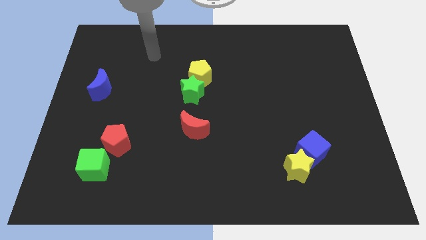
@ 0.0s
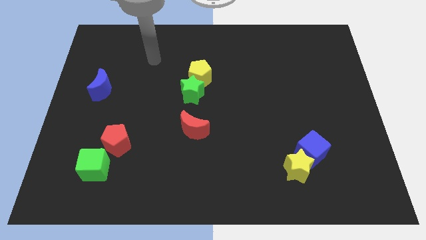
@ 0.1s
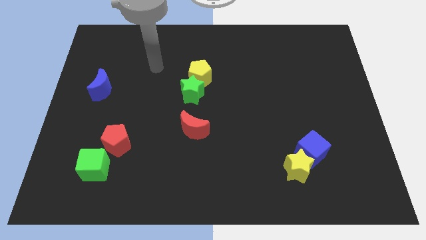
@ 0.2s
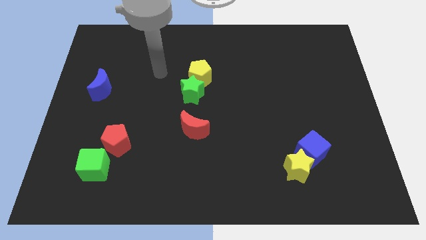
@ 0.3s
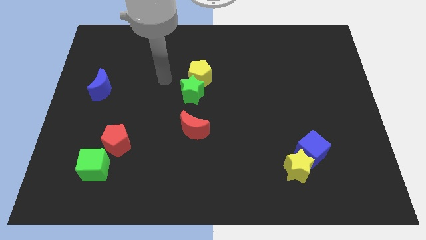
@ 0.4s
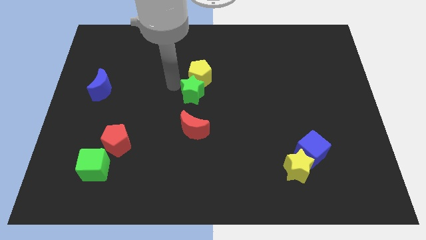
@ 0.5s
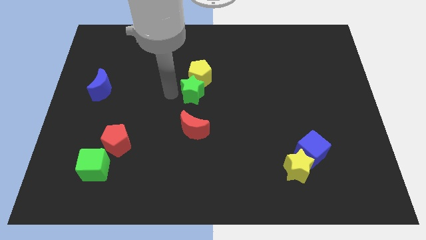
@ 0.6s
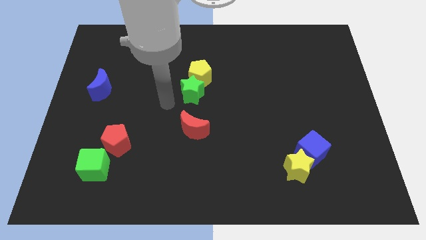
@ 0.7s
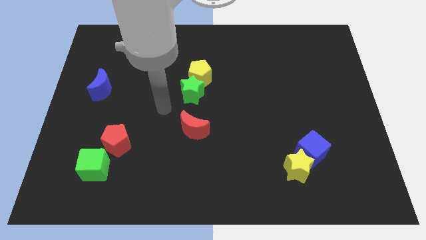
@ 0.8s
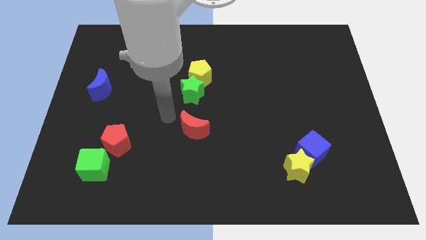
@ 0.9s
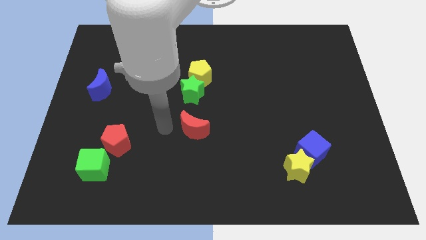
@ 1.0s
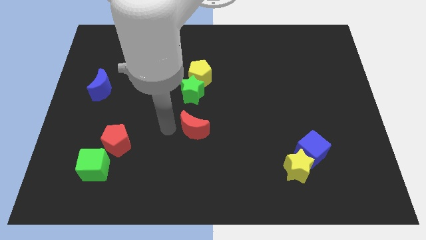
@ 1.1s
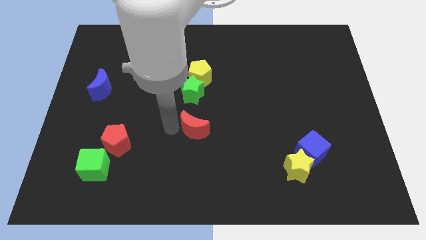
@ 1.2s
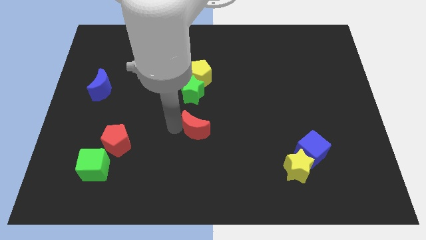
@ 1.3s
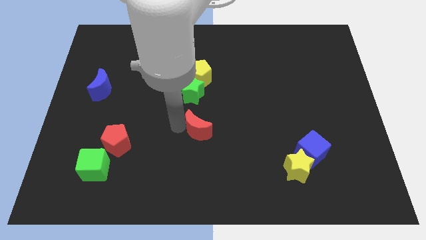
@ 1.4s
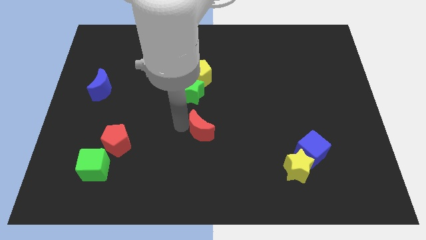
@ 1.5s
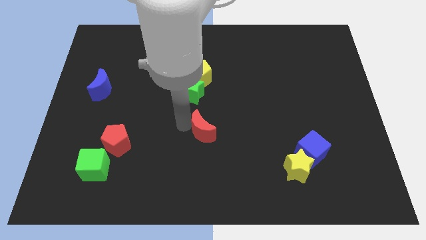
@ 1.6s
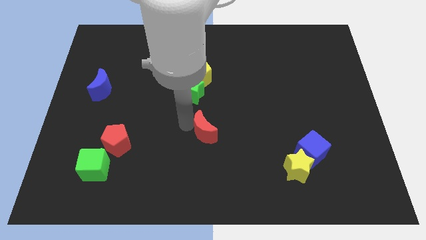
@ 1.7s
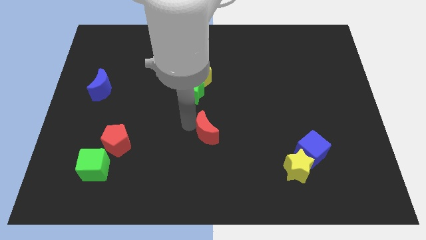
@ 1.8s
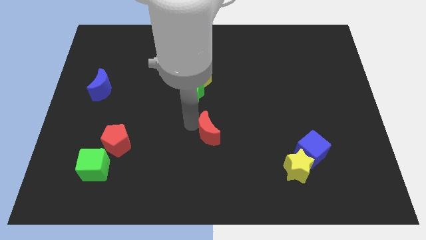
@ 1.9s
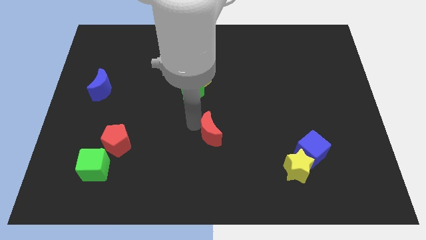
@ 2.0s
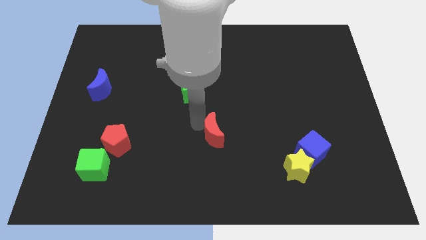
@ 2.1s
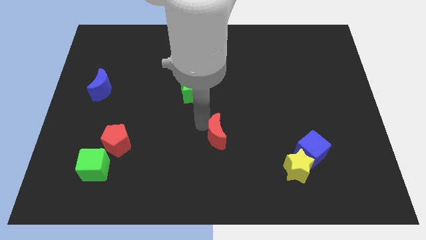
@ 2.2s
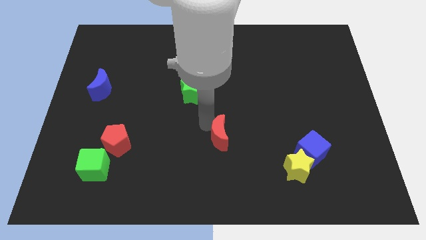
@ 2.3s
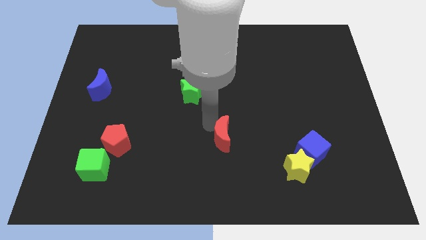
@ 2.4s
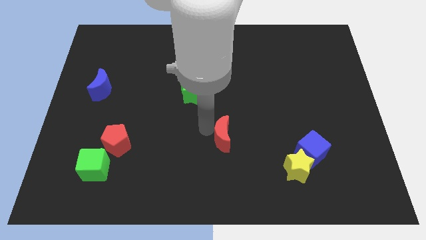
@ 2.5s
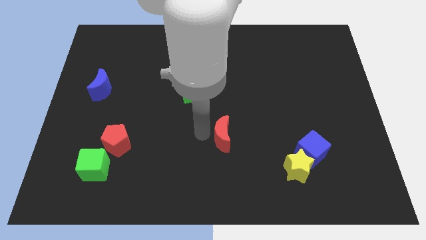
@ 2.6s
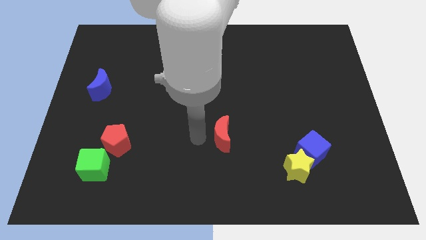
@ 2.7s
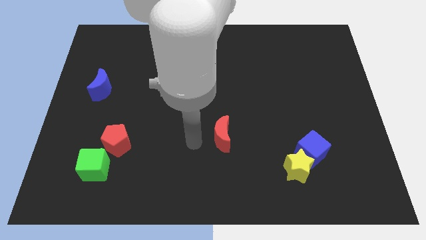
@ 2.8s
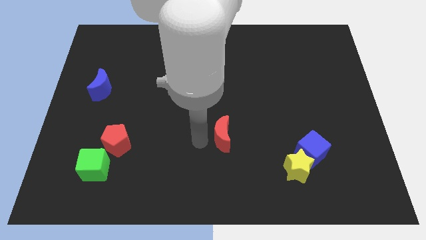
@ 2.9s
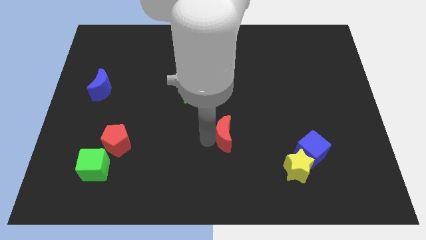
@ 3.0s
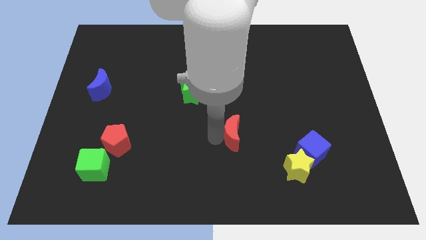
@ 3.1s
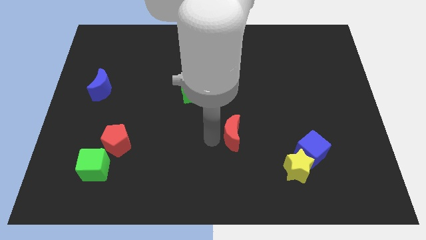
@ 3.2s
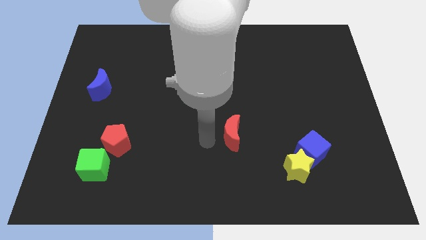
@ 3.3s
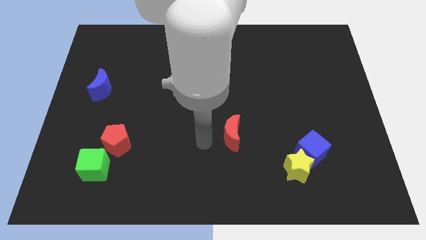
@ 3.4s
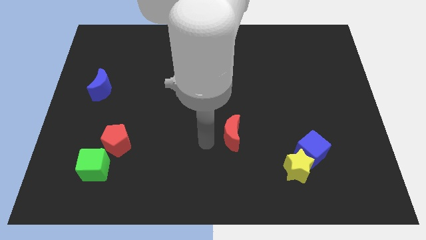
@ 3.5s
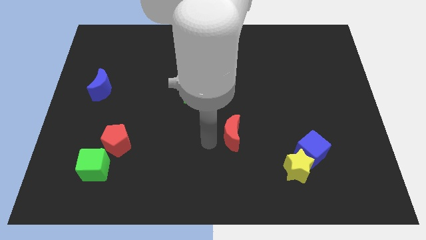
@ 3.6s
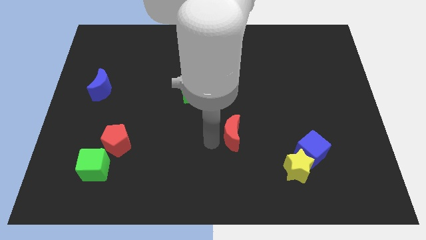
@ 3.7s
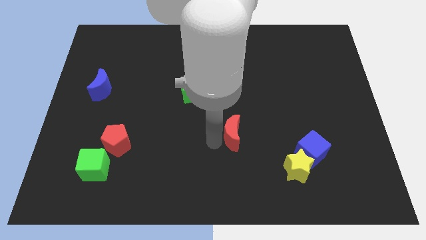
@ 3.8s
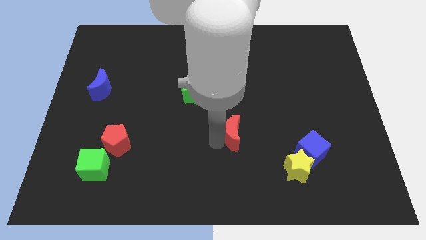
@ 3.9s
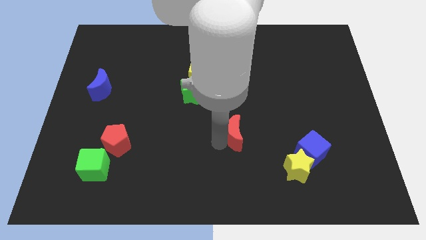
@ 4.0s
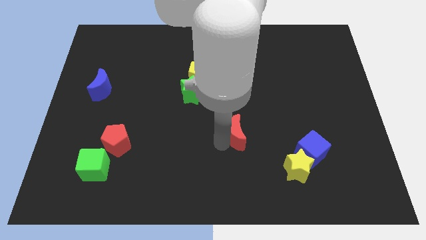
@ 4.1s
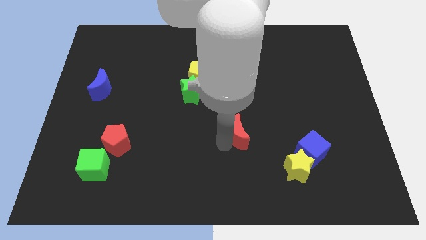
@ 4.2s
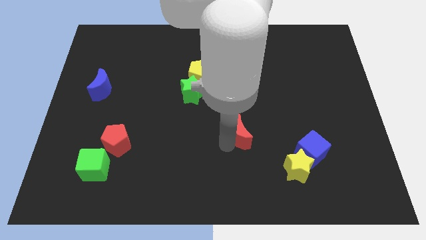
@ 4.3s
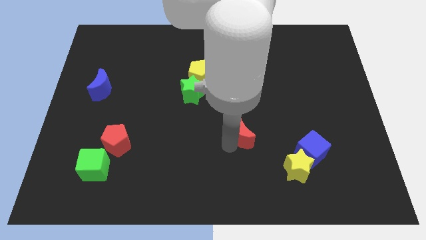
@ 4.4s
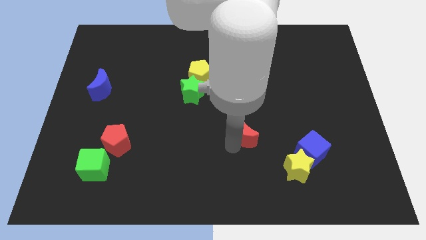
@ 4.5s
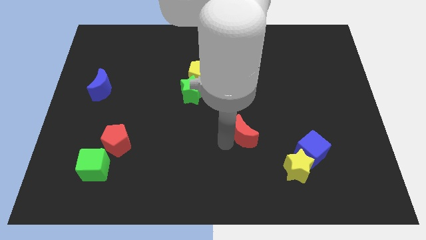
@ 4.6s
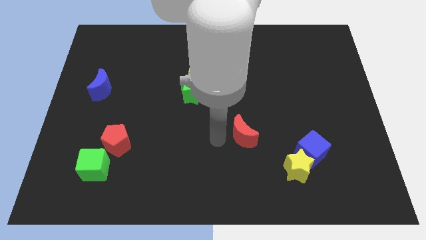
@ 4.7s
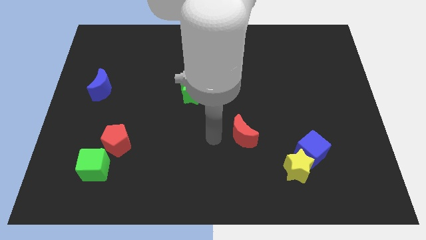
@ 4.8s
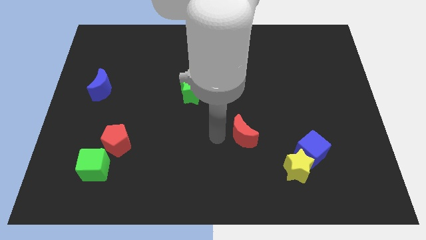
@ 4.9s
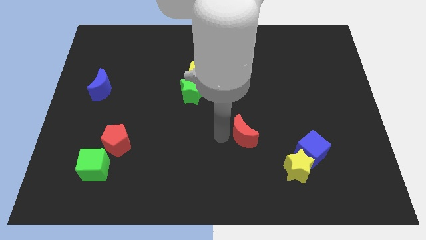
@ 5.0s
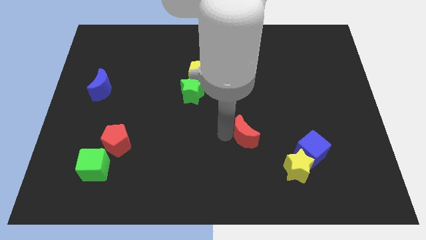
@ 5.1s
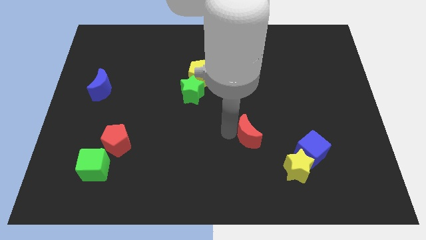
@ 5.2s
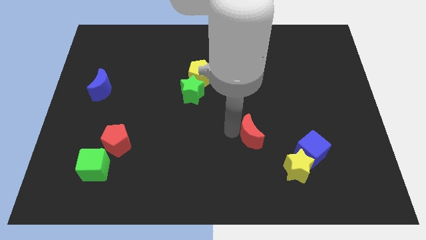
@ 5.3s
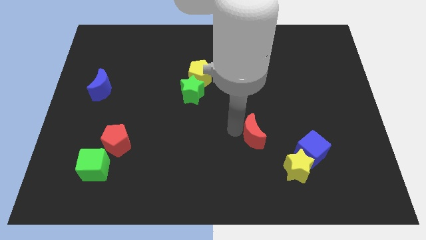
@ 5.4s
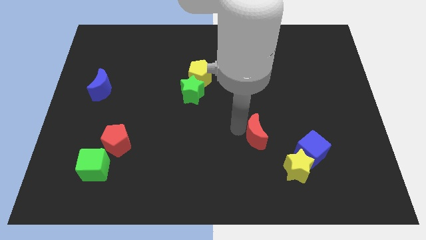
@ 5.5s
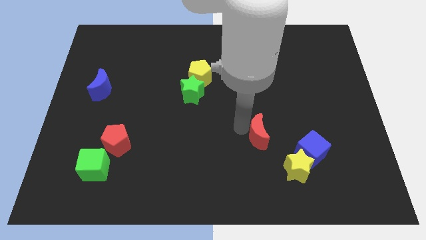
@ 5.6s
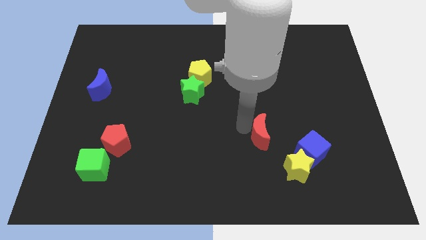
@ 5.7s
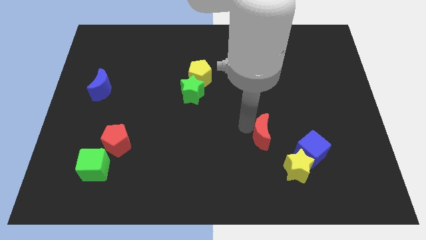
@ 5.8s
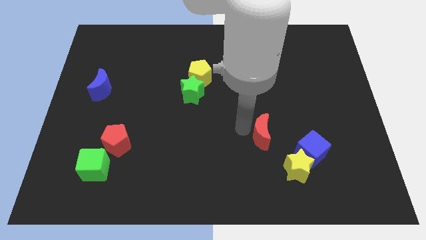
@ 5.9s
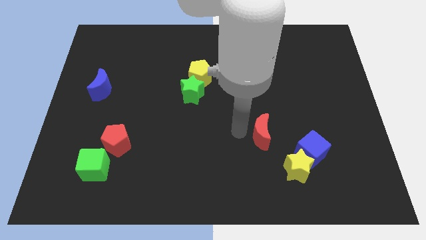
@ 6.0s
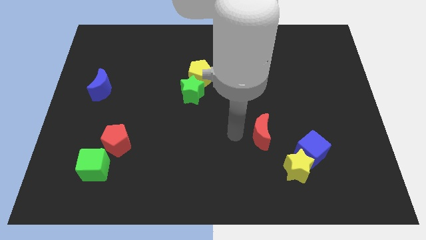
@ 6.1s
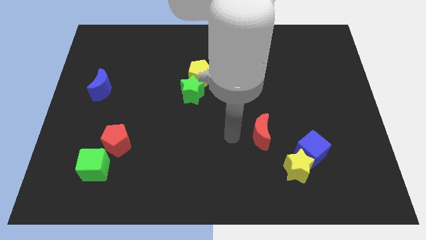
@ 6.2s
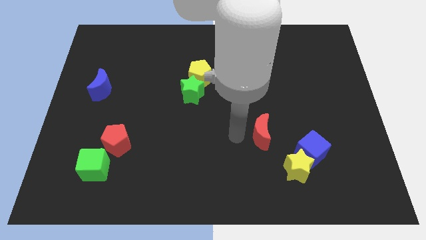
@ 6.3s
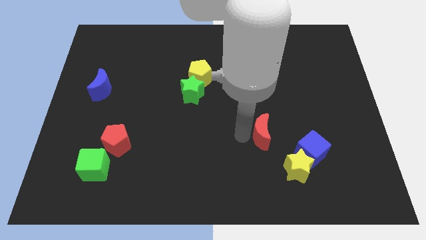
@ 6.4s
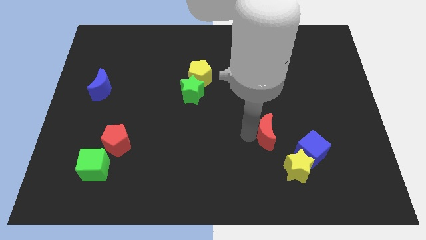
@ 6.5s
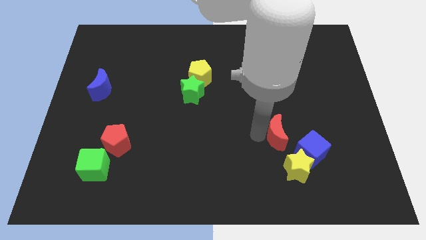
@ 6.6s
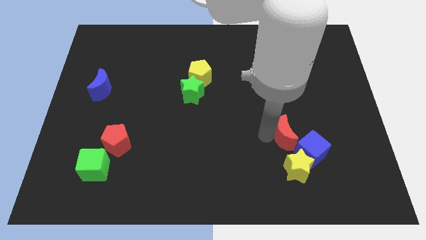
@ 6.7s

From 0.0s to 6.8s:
move the red moon to the right

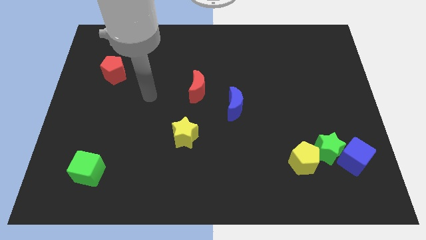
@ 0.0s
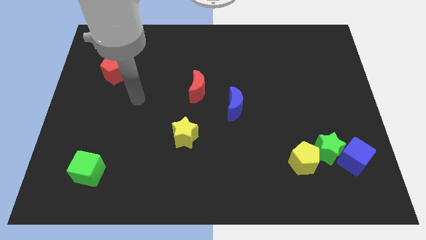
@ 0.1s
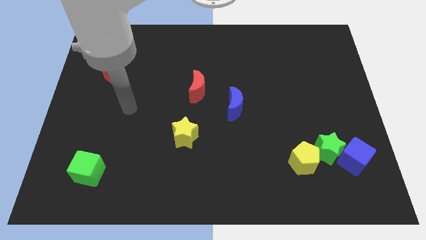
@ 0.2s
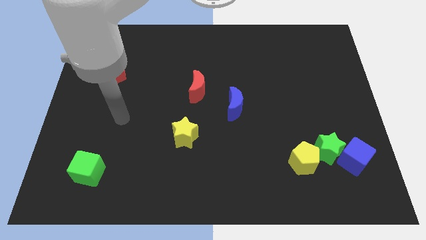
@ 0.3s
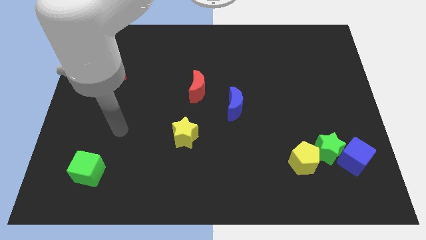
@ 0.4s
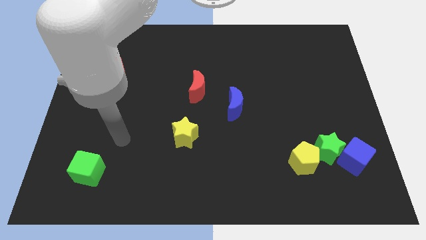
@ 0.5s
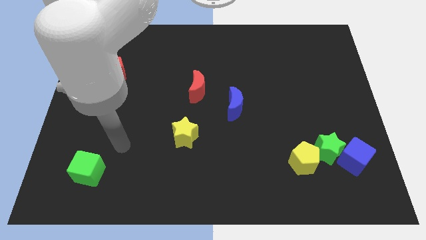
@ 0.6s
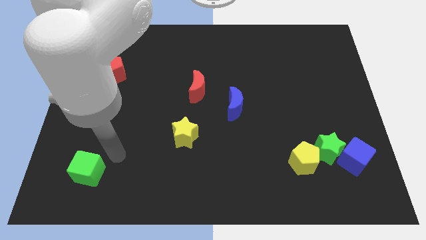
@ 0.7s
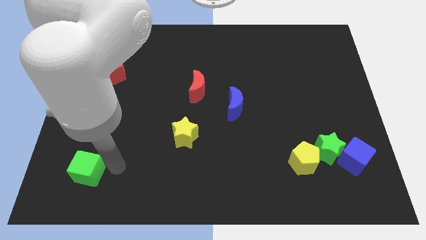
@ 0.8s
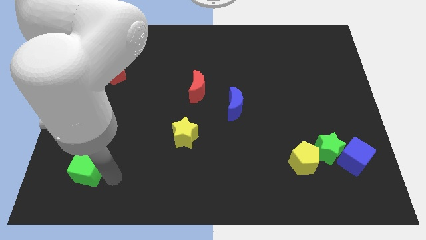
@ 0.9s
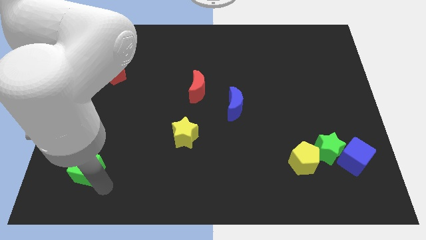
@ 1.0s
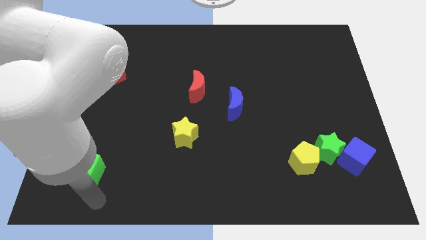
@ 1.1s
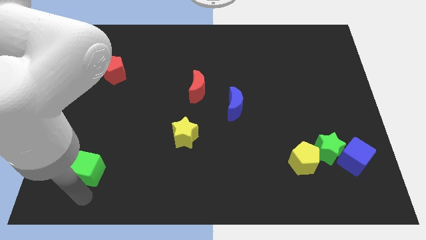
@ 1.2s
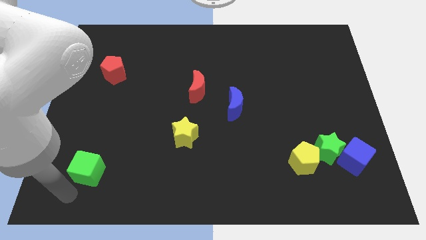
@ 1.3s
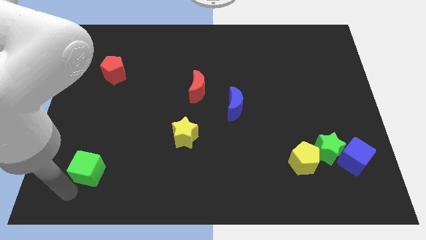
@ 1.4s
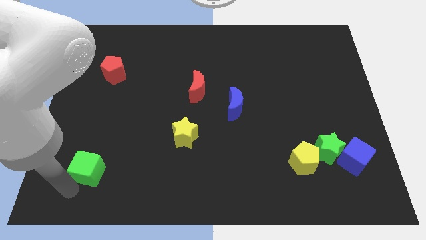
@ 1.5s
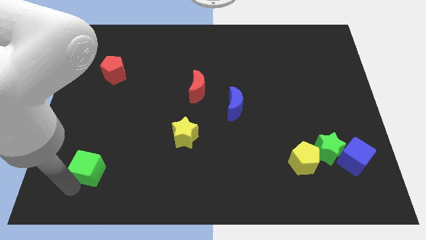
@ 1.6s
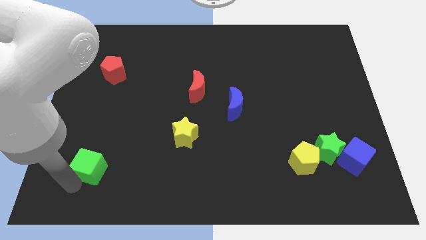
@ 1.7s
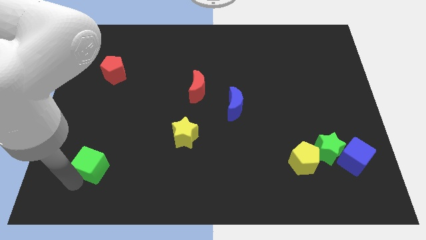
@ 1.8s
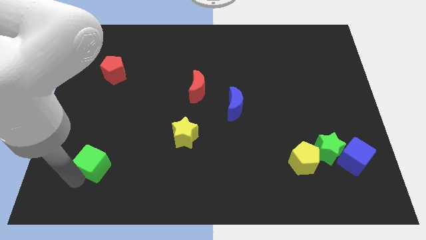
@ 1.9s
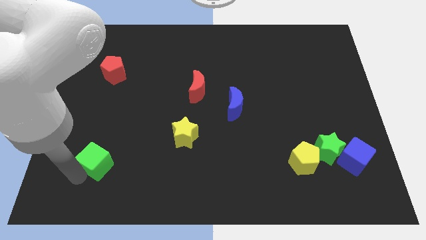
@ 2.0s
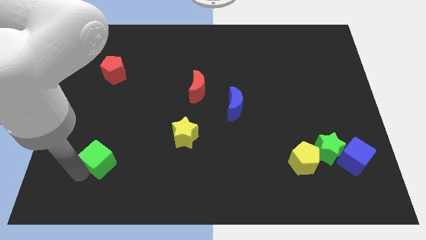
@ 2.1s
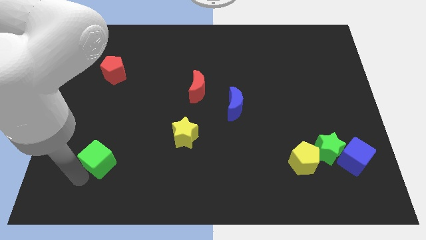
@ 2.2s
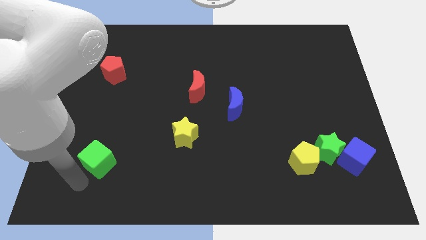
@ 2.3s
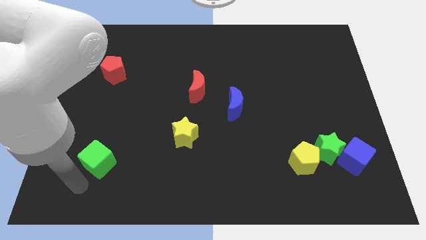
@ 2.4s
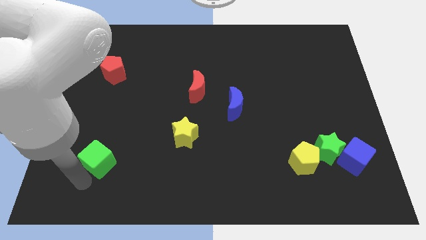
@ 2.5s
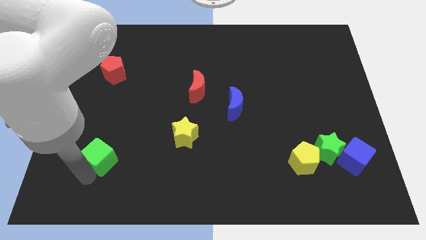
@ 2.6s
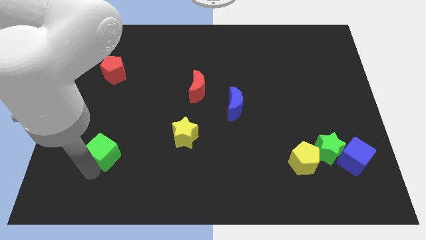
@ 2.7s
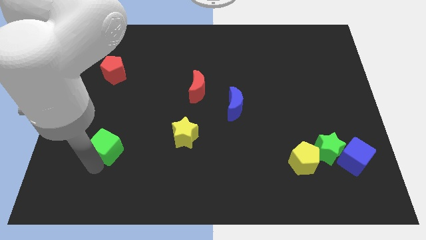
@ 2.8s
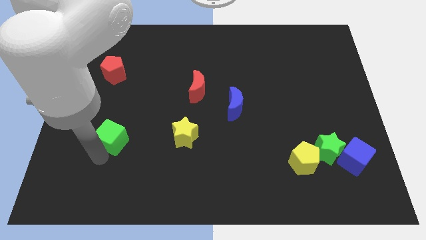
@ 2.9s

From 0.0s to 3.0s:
slightly move the green cube up and to the right diagonally
